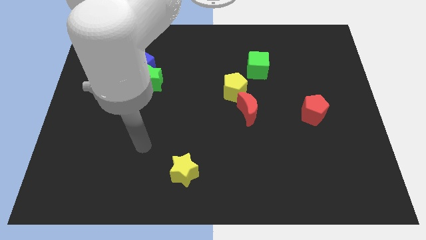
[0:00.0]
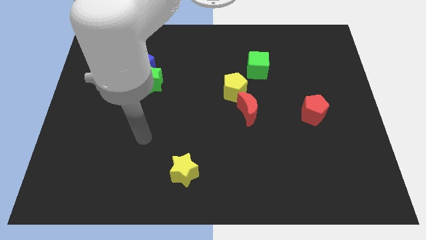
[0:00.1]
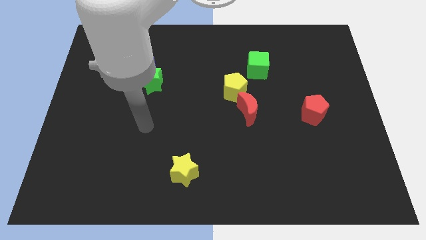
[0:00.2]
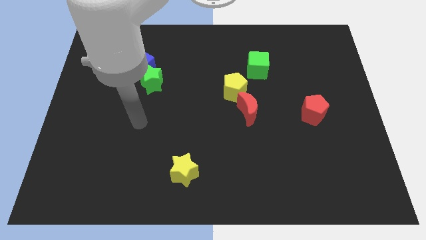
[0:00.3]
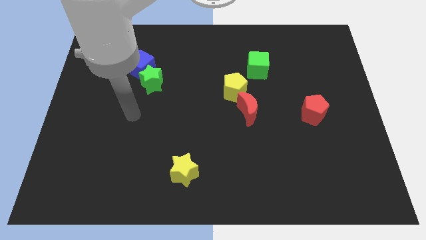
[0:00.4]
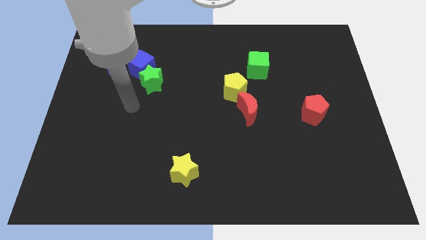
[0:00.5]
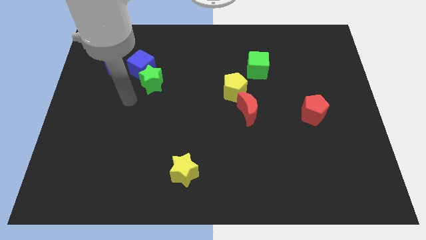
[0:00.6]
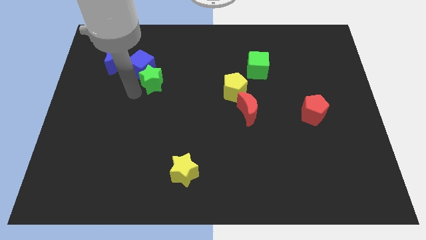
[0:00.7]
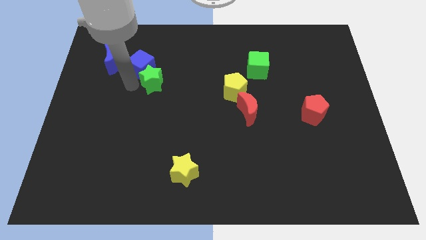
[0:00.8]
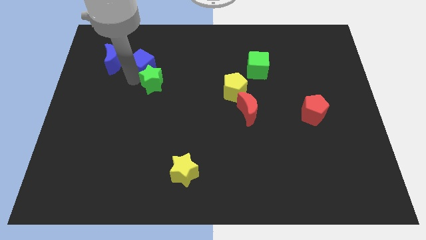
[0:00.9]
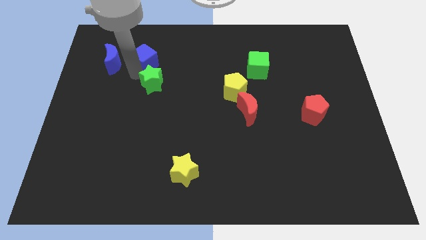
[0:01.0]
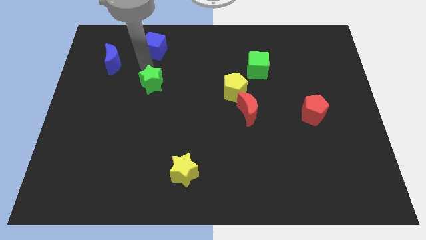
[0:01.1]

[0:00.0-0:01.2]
move the green star away from the blue cube

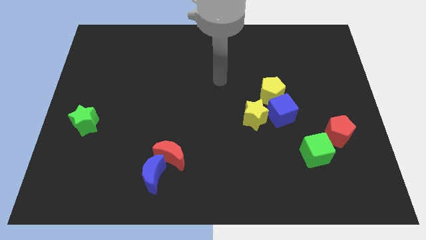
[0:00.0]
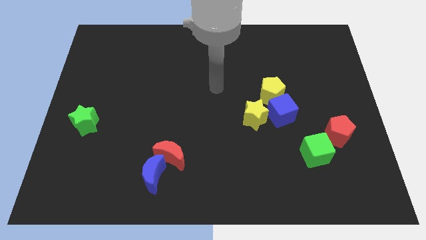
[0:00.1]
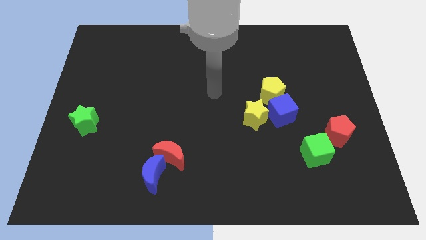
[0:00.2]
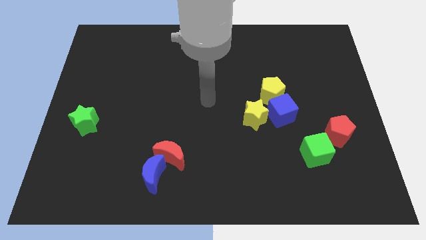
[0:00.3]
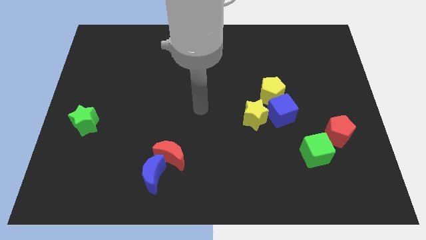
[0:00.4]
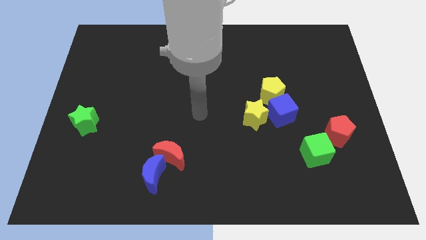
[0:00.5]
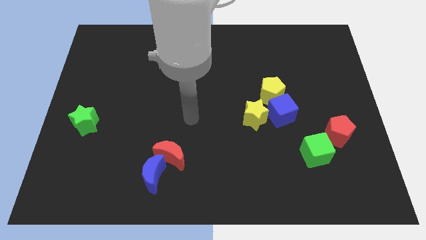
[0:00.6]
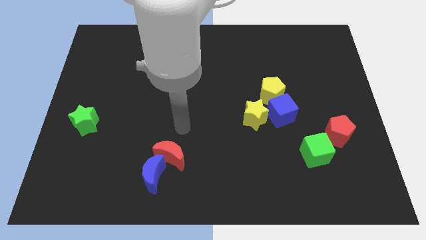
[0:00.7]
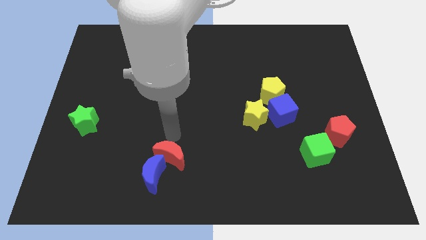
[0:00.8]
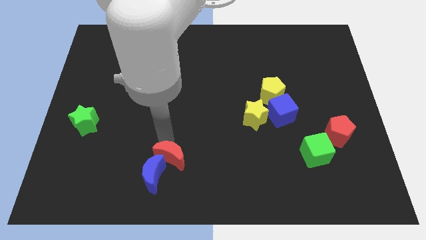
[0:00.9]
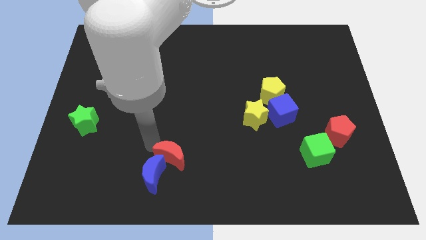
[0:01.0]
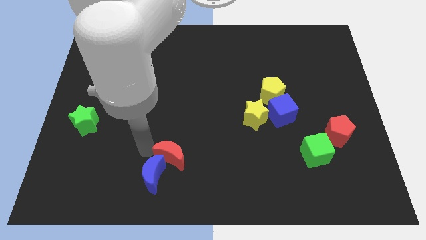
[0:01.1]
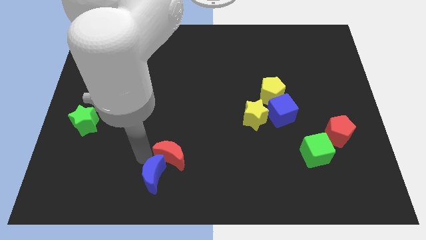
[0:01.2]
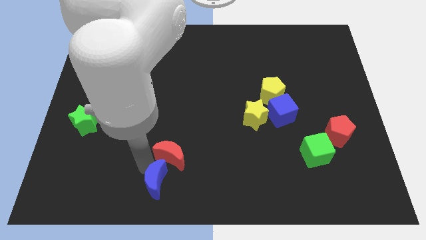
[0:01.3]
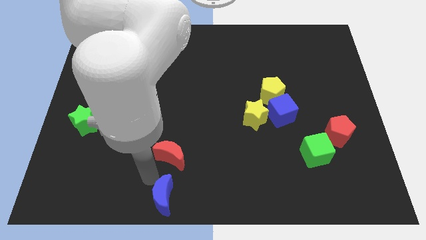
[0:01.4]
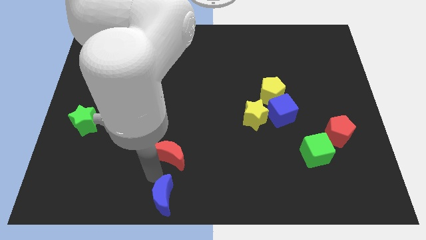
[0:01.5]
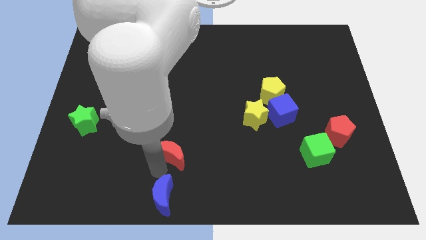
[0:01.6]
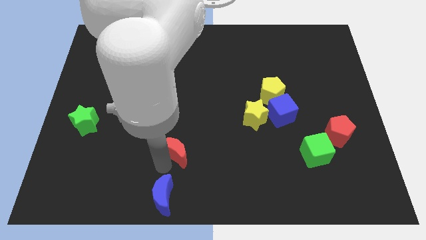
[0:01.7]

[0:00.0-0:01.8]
move the red moon away from the blue moon

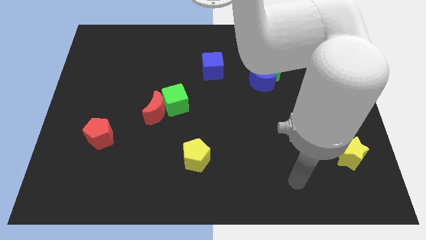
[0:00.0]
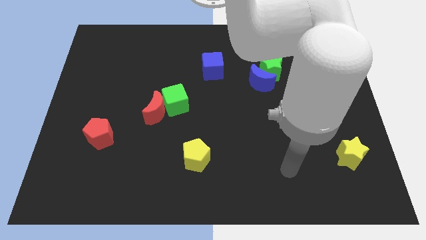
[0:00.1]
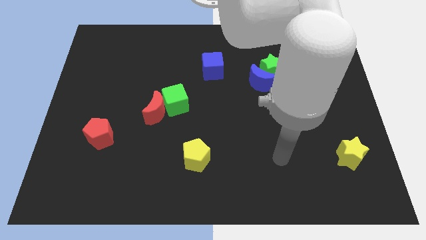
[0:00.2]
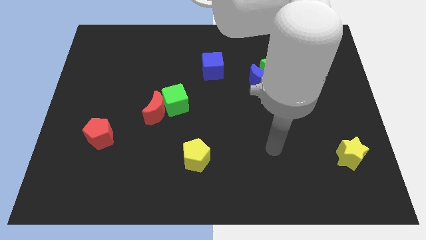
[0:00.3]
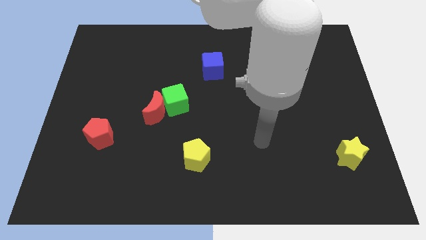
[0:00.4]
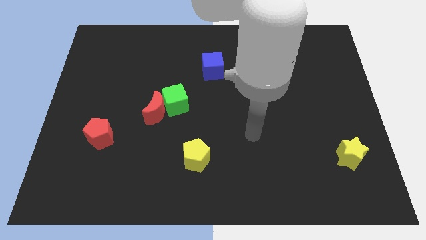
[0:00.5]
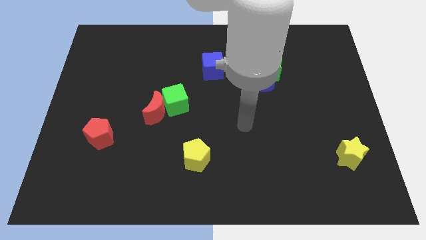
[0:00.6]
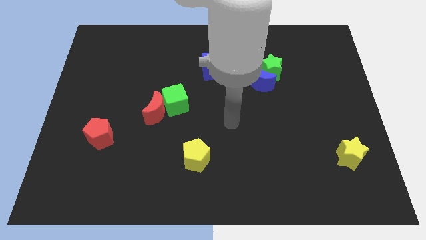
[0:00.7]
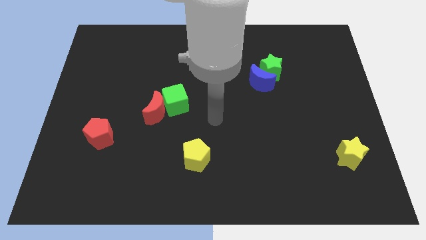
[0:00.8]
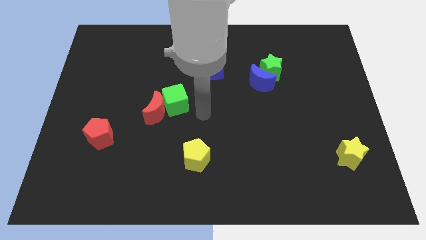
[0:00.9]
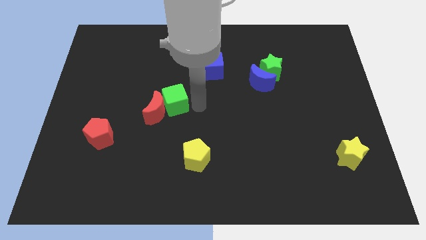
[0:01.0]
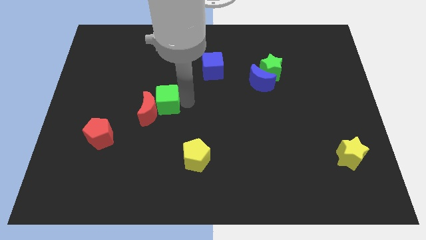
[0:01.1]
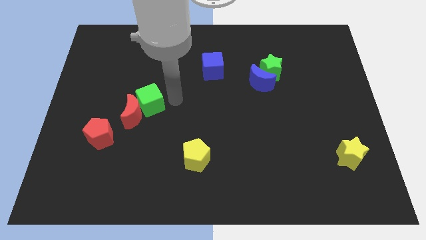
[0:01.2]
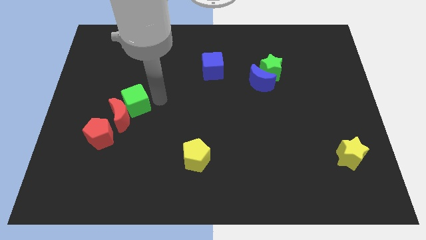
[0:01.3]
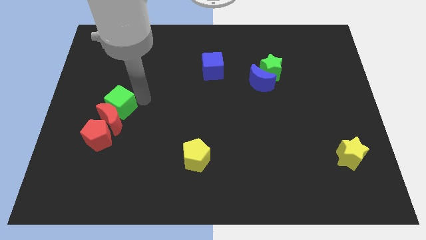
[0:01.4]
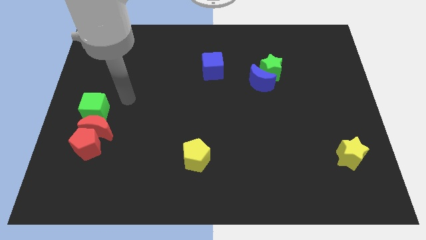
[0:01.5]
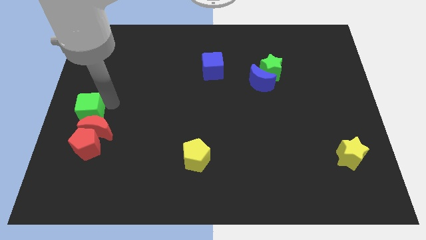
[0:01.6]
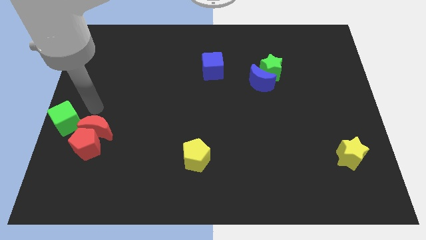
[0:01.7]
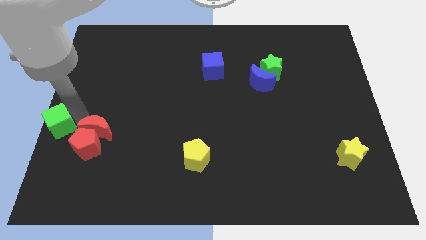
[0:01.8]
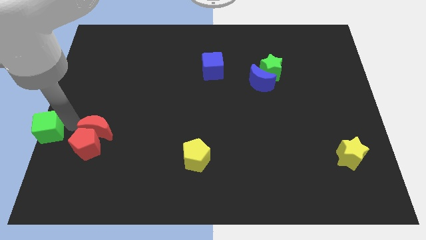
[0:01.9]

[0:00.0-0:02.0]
pull the red moon apart from the green cube

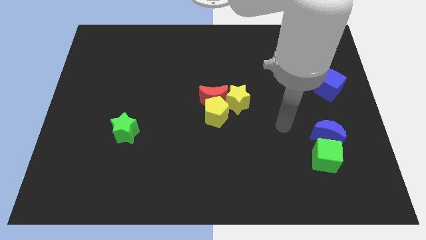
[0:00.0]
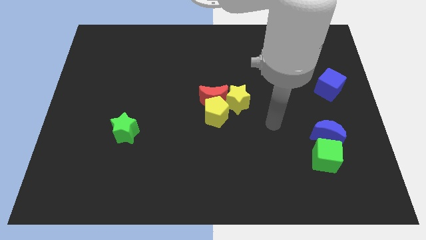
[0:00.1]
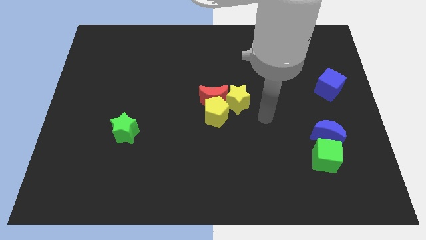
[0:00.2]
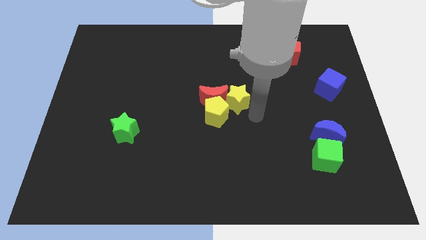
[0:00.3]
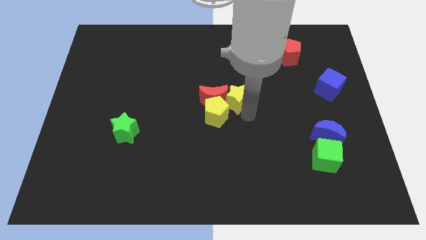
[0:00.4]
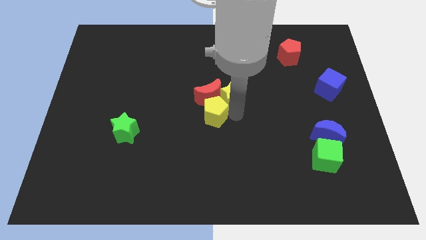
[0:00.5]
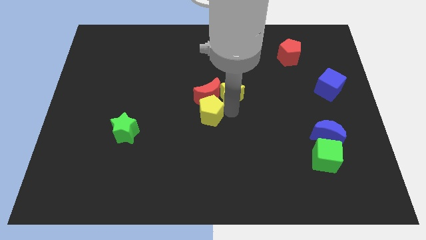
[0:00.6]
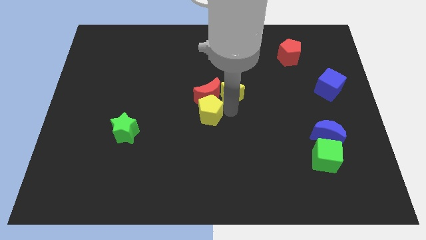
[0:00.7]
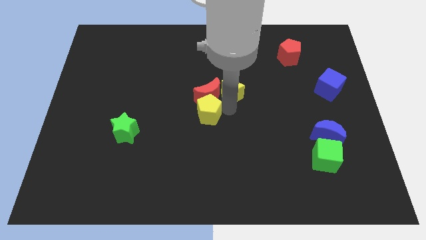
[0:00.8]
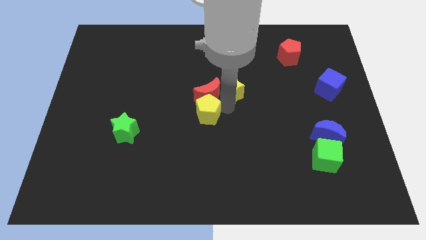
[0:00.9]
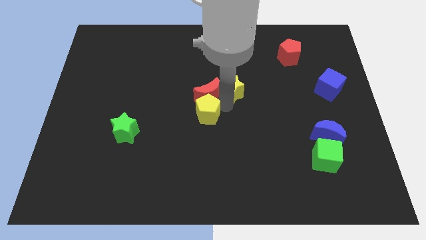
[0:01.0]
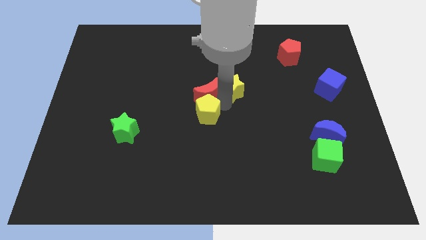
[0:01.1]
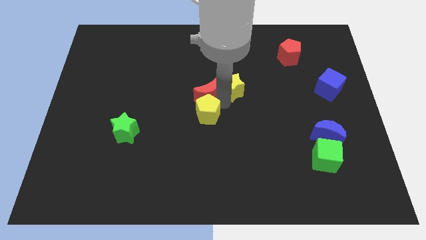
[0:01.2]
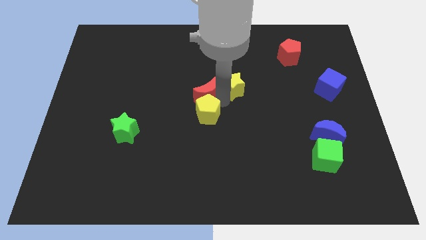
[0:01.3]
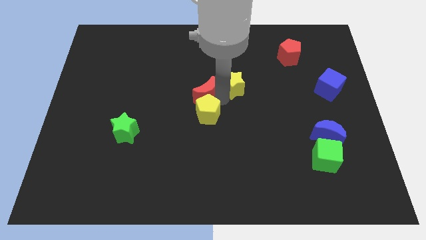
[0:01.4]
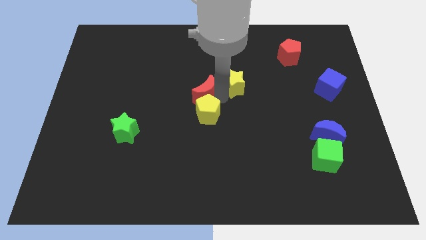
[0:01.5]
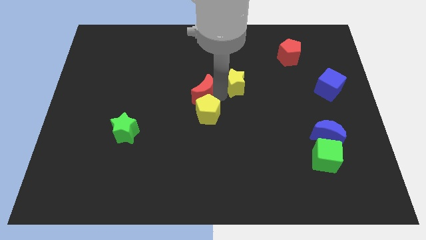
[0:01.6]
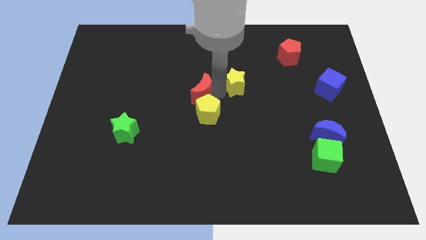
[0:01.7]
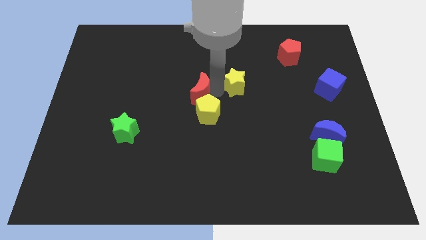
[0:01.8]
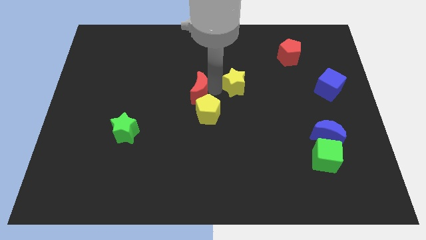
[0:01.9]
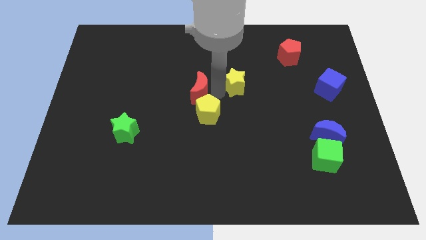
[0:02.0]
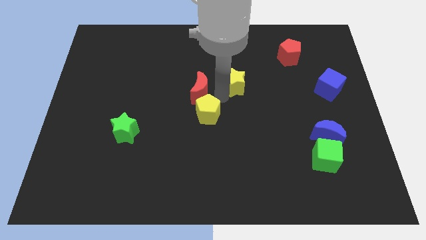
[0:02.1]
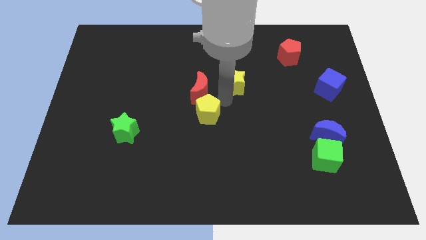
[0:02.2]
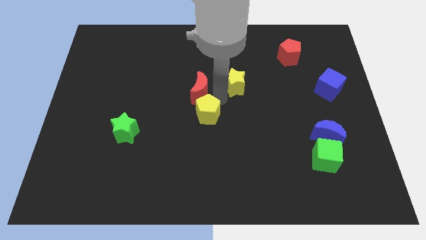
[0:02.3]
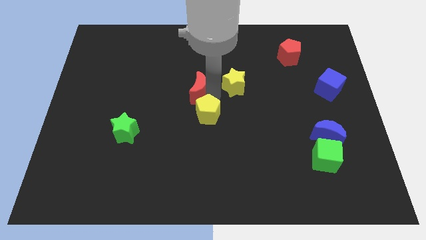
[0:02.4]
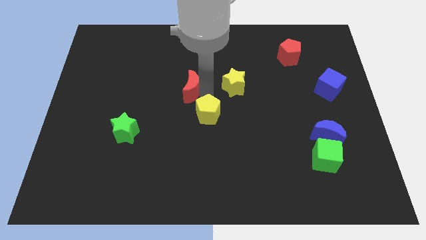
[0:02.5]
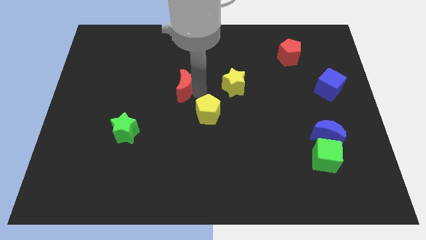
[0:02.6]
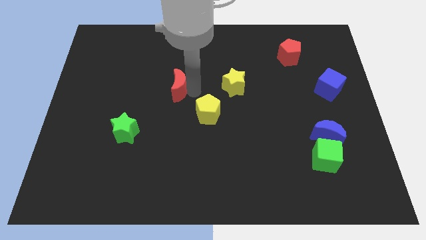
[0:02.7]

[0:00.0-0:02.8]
pull the red moon apart from the yellow pentagon and yellow star

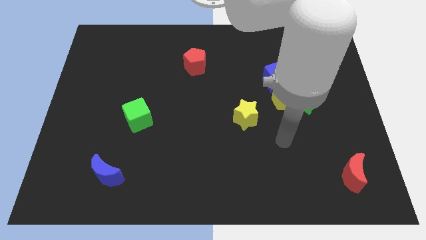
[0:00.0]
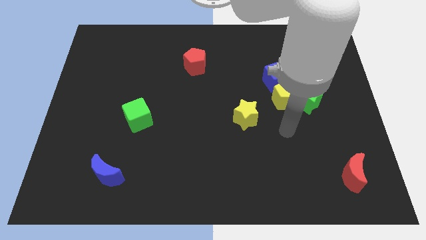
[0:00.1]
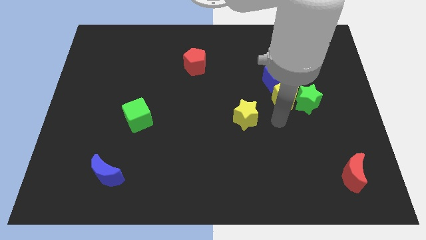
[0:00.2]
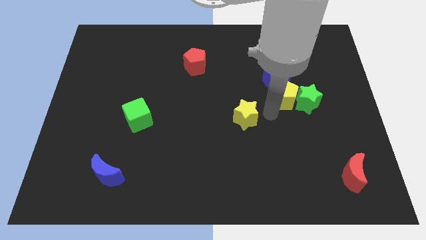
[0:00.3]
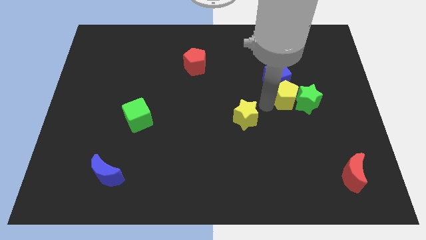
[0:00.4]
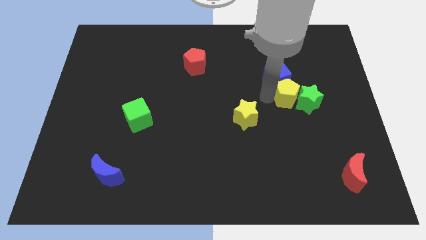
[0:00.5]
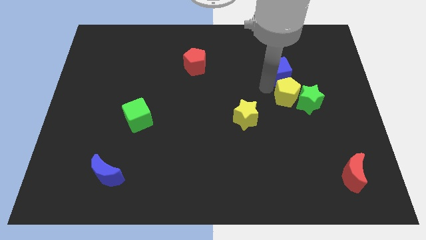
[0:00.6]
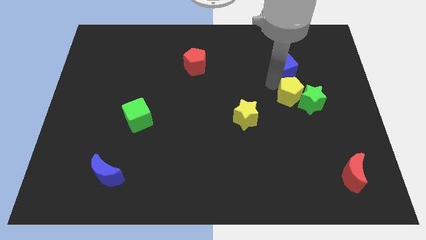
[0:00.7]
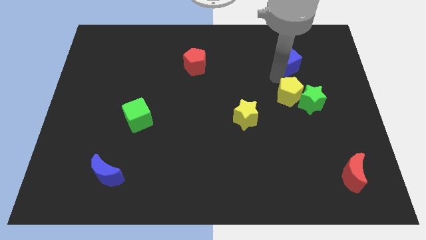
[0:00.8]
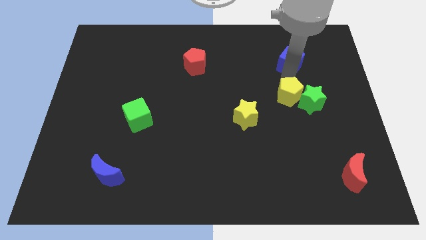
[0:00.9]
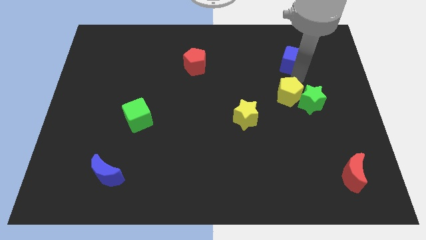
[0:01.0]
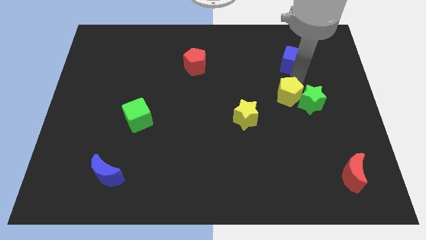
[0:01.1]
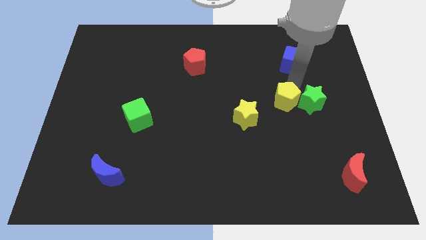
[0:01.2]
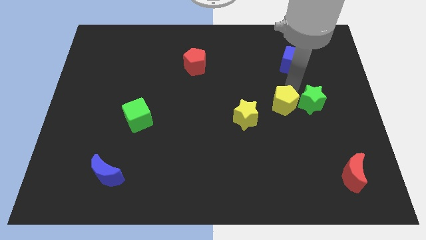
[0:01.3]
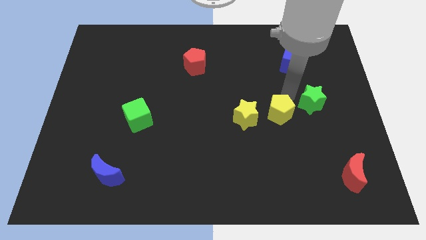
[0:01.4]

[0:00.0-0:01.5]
pull the yellow pentagon apart from the green star and blue cube
